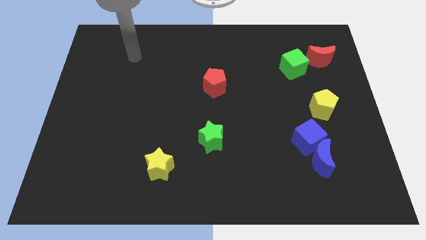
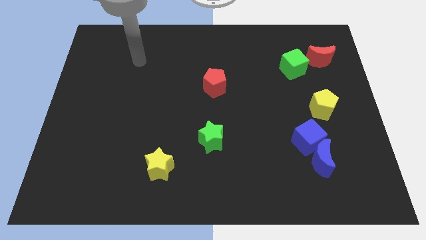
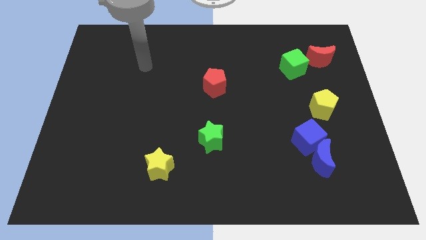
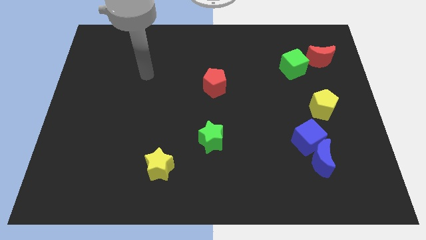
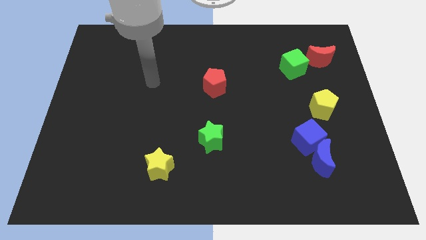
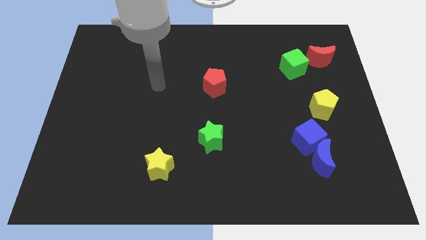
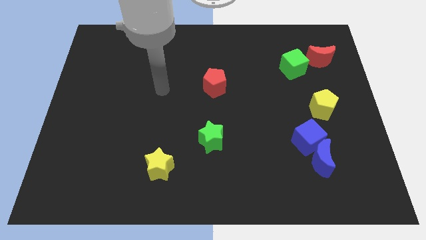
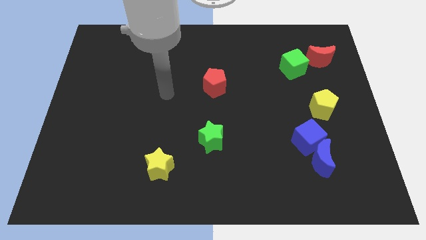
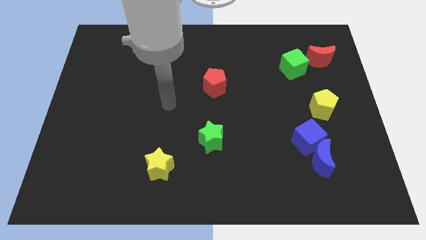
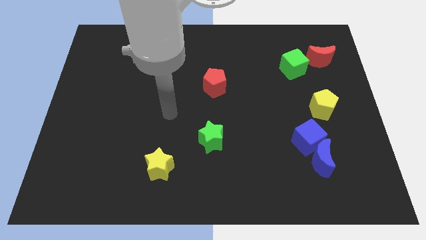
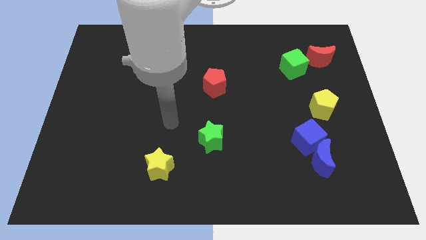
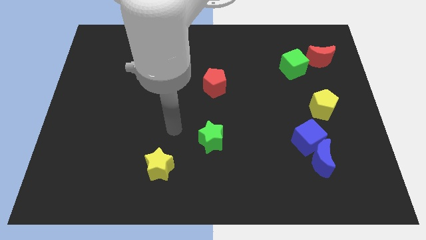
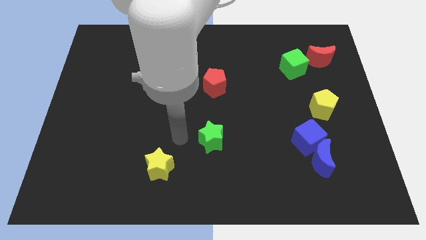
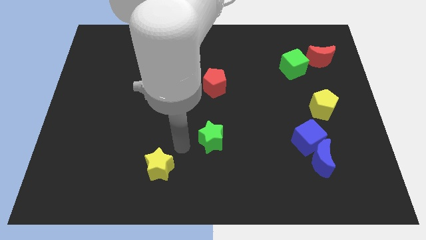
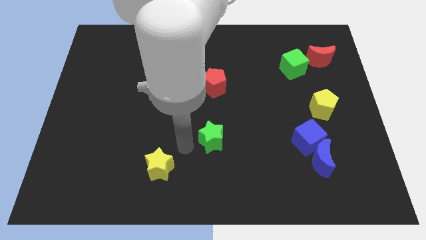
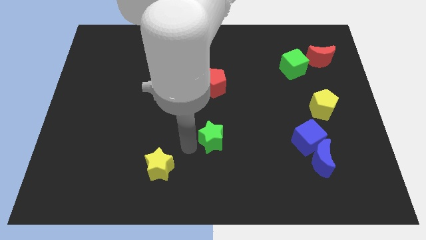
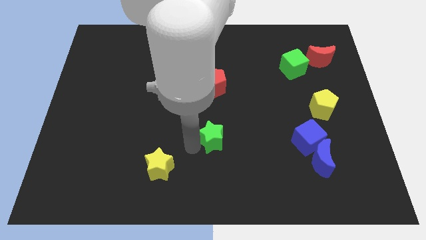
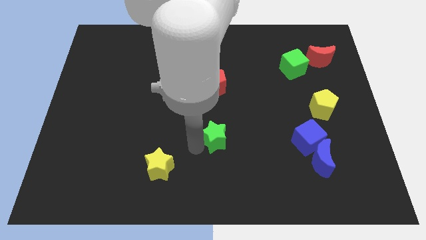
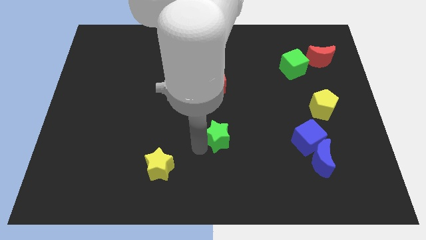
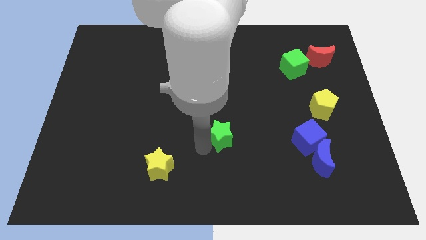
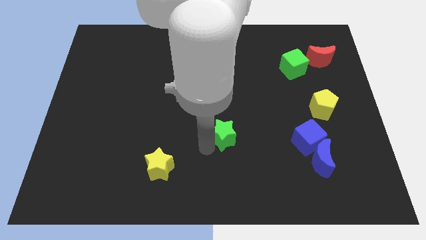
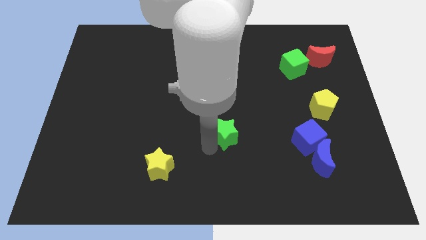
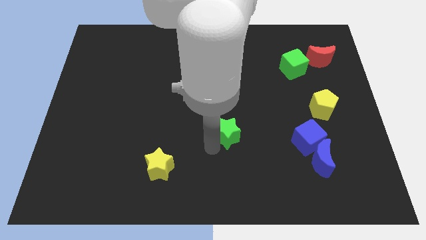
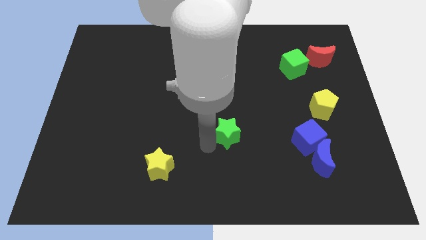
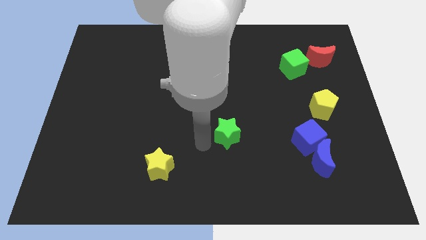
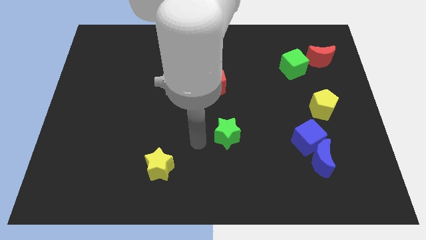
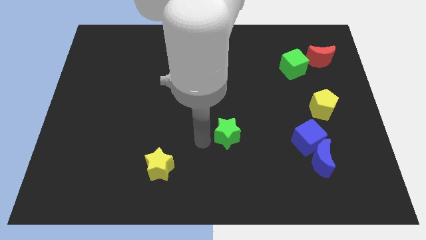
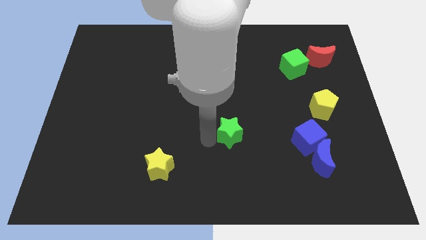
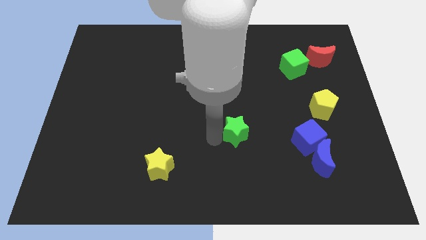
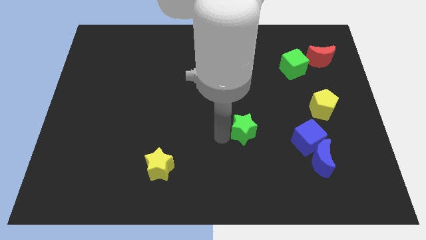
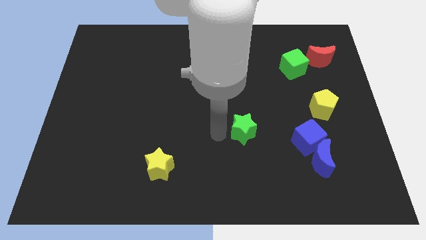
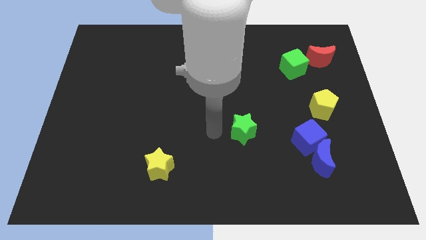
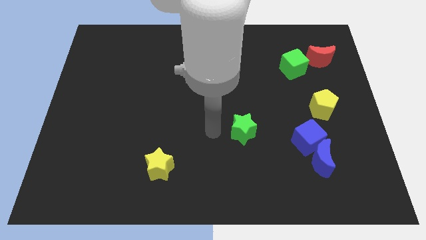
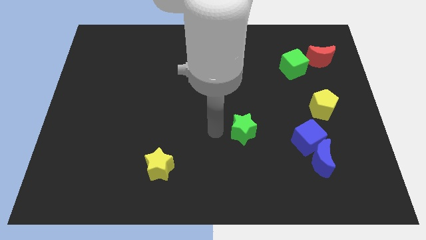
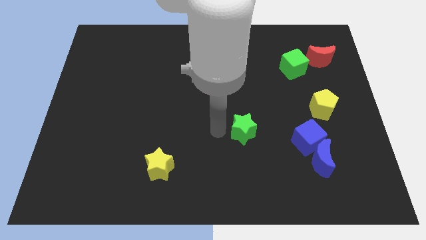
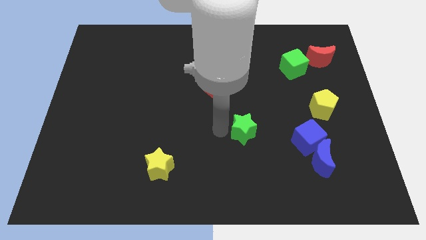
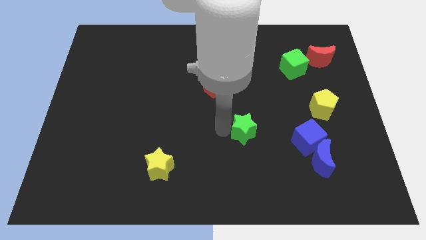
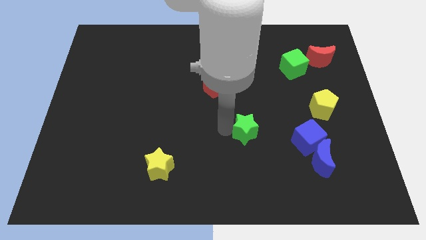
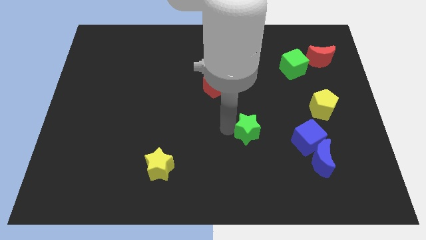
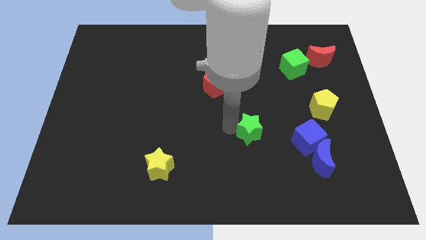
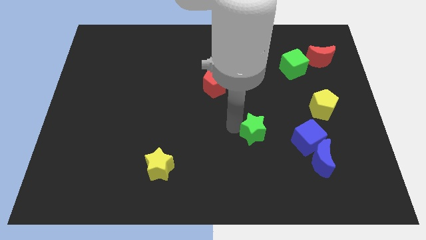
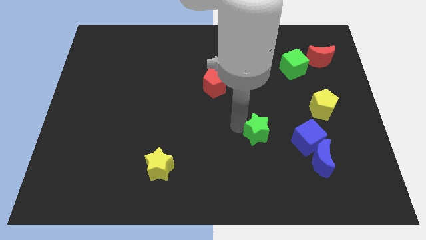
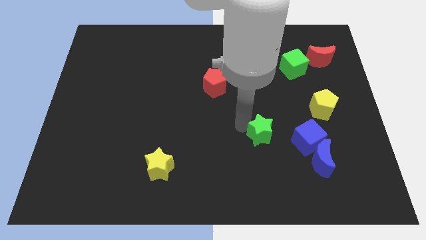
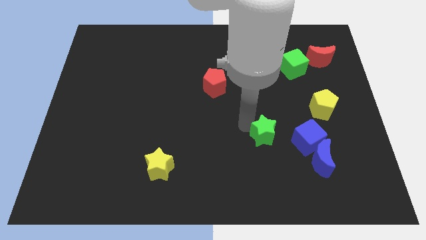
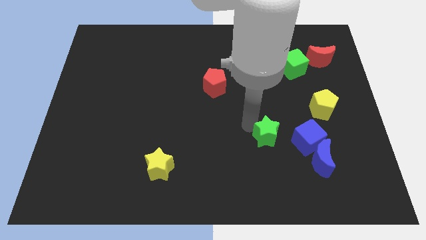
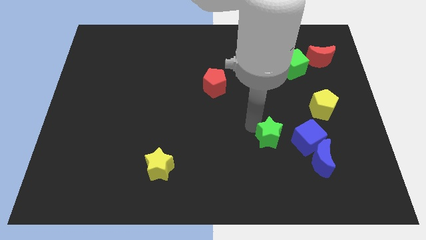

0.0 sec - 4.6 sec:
push the green star to the top left of the blue moon

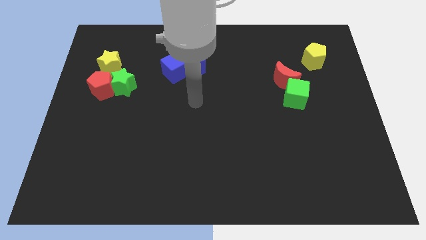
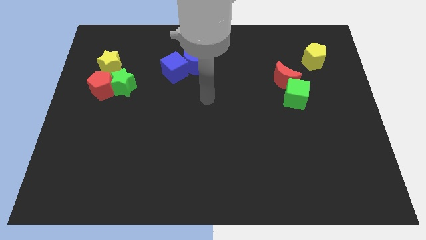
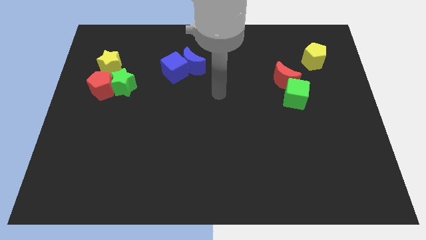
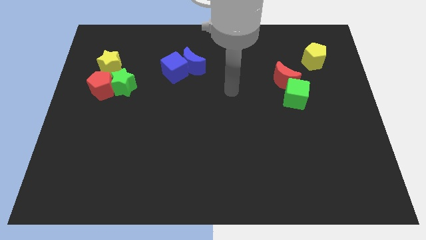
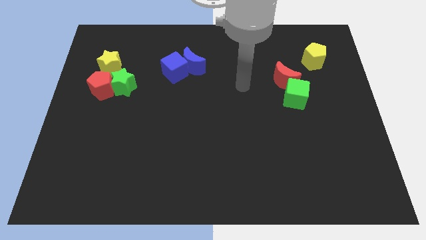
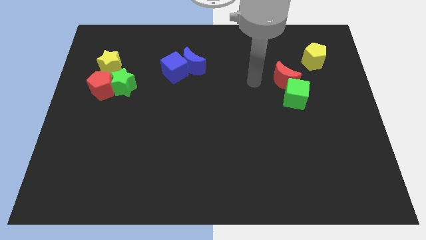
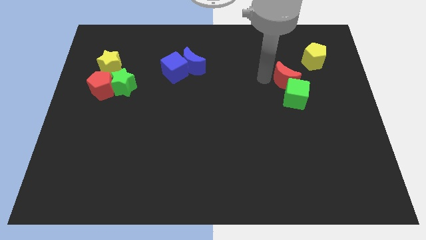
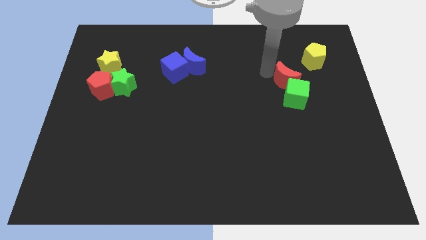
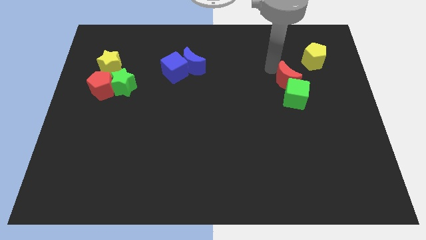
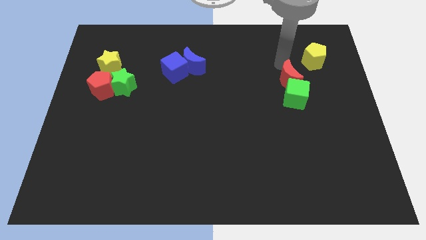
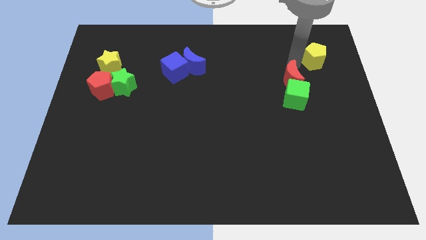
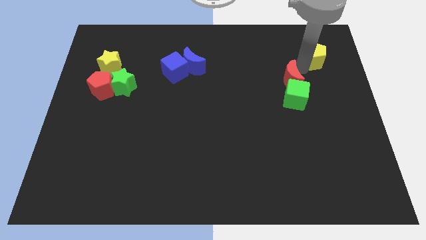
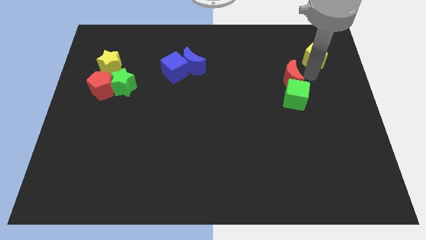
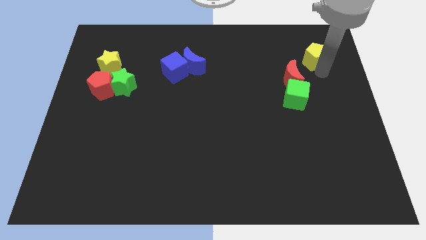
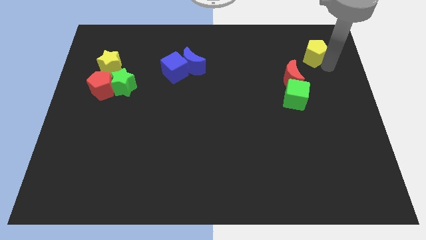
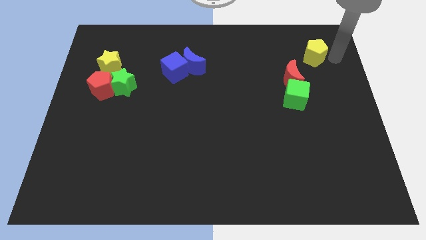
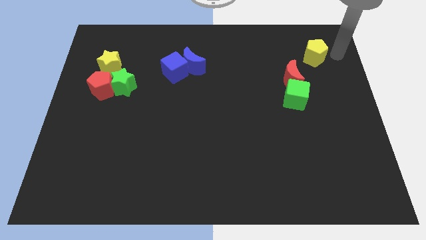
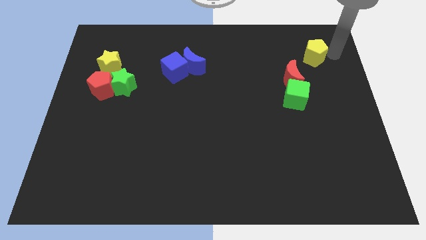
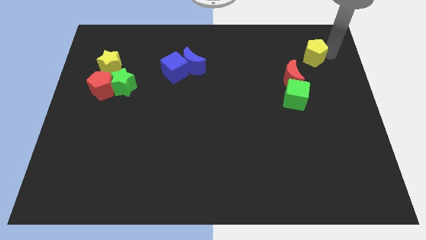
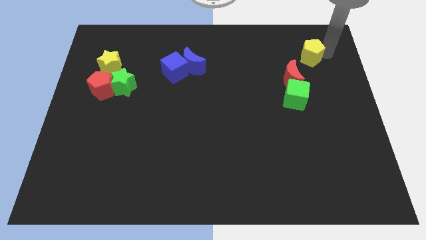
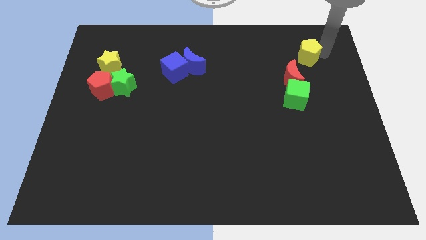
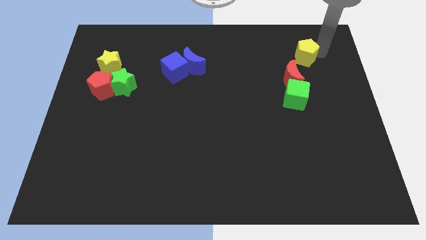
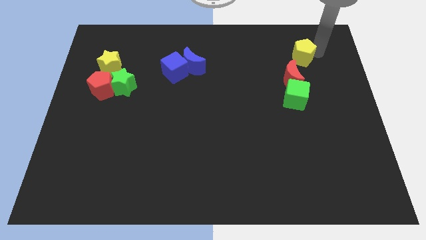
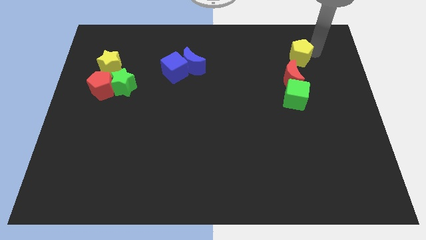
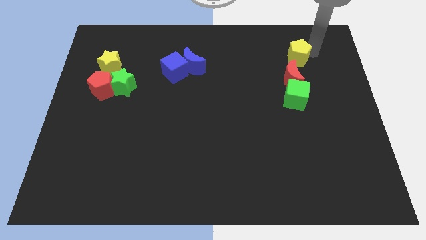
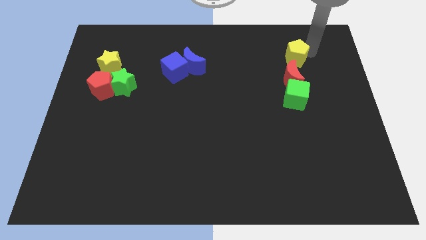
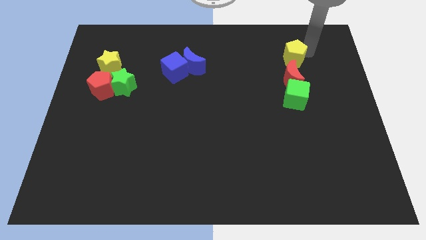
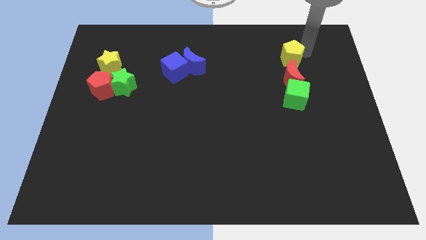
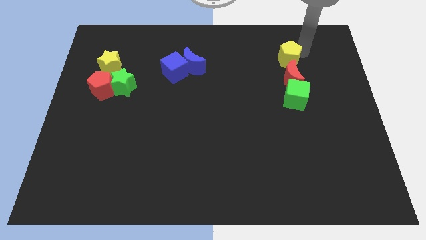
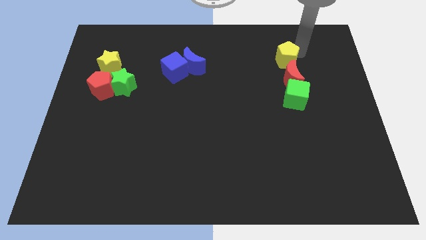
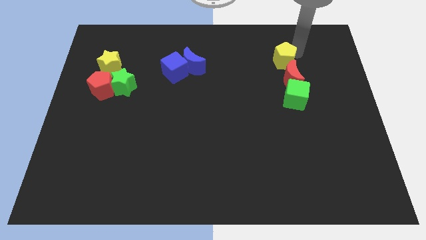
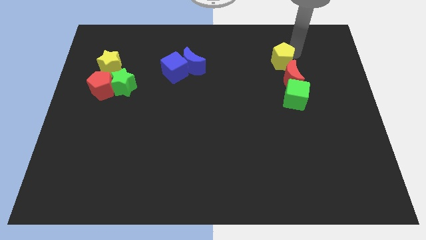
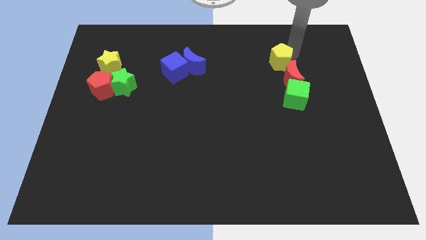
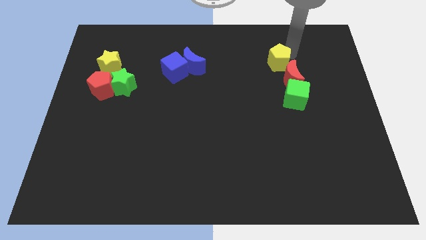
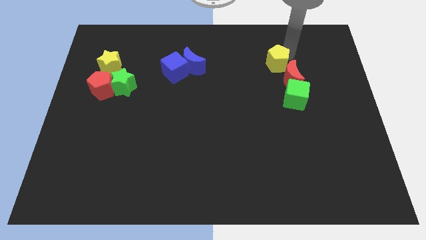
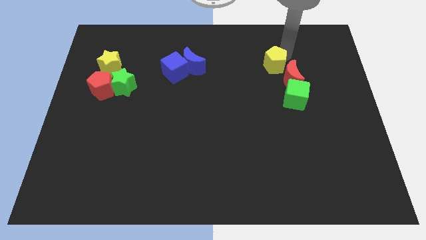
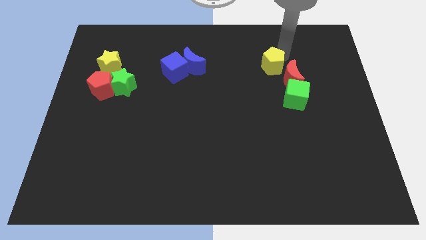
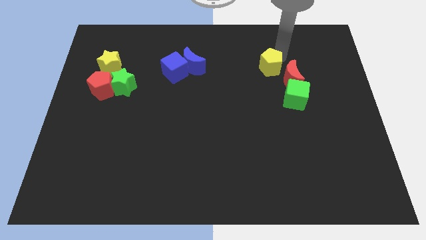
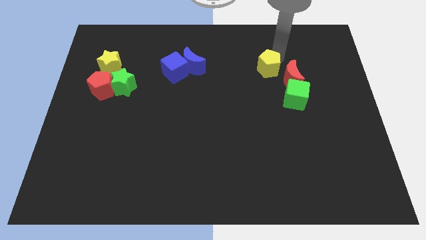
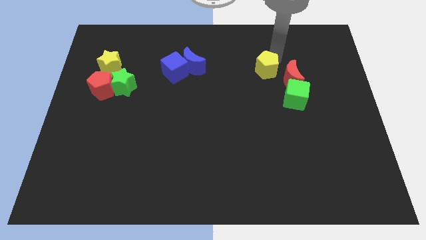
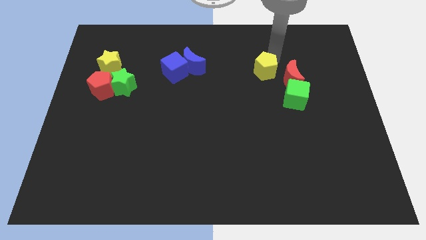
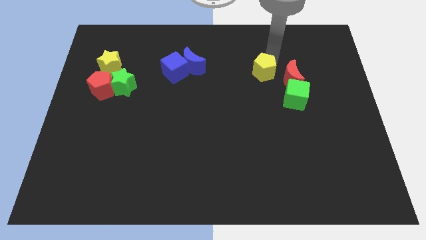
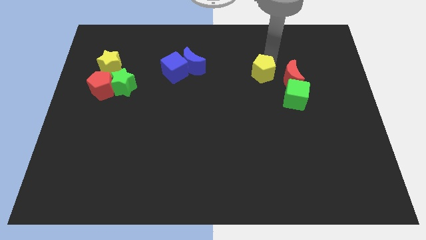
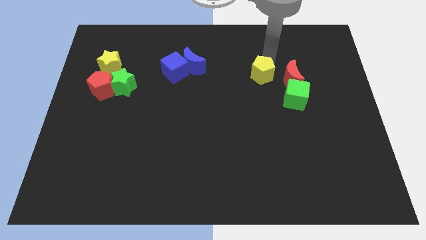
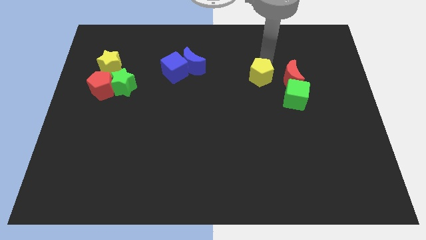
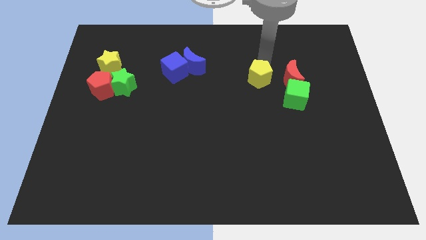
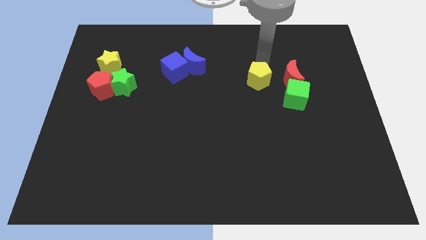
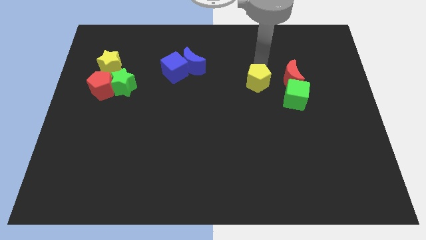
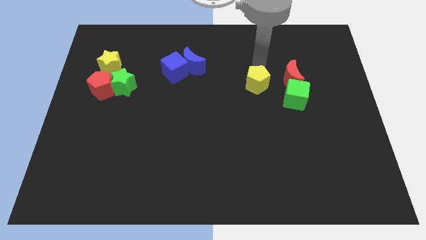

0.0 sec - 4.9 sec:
push the yellow pentagon left of the green cube
